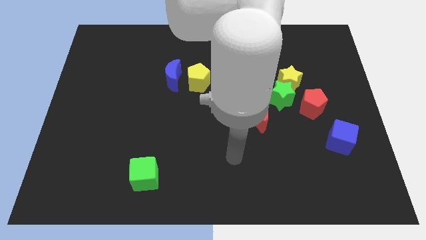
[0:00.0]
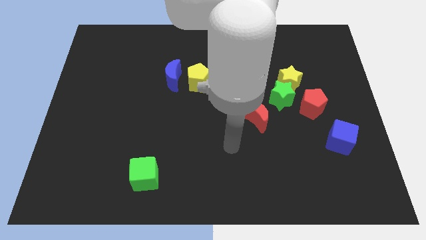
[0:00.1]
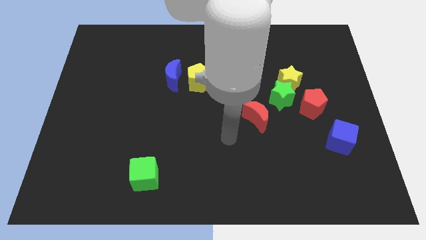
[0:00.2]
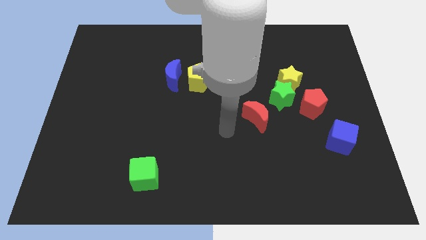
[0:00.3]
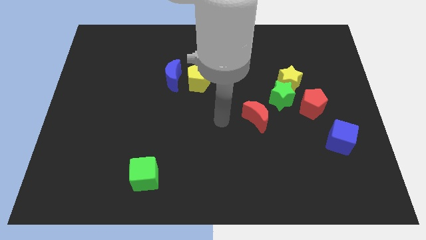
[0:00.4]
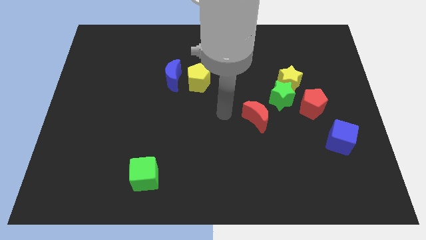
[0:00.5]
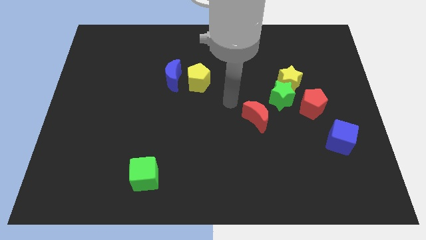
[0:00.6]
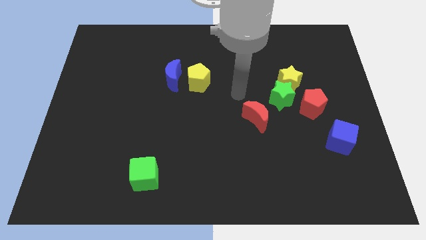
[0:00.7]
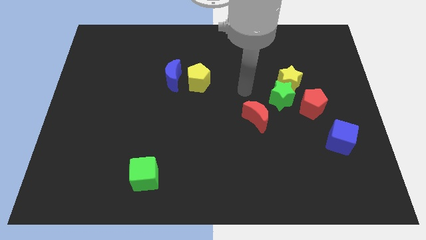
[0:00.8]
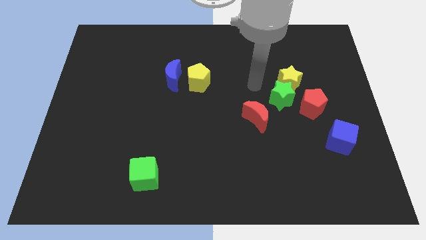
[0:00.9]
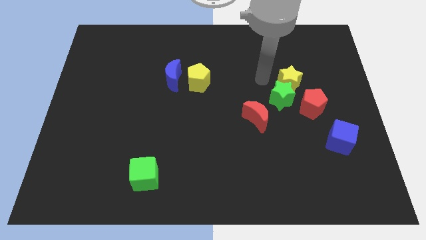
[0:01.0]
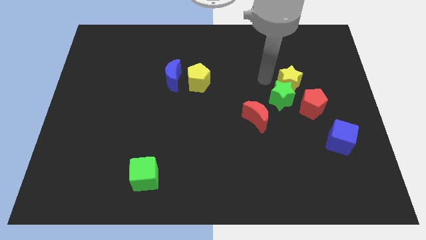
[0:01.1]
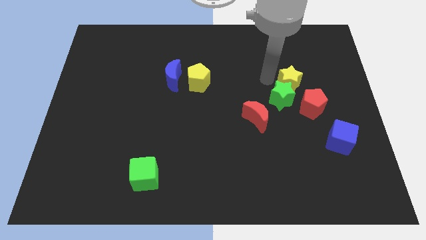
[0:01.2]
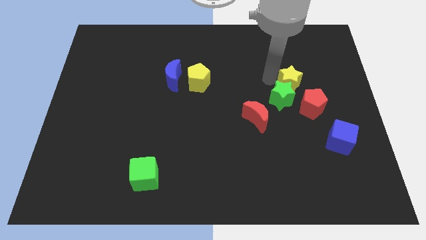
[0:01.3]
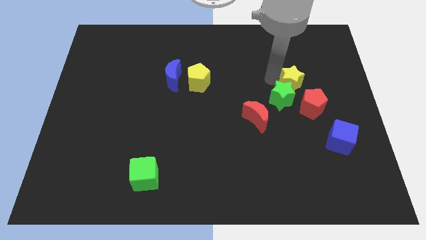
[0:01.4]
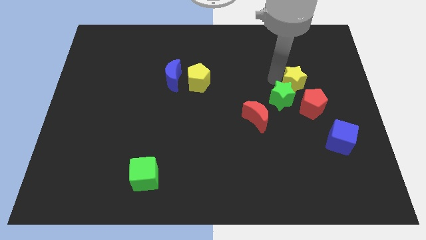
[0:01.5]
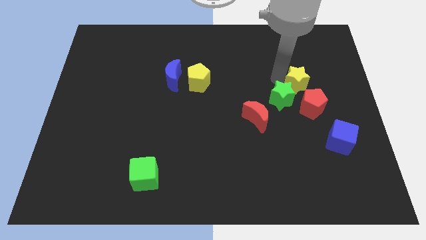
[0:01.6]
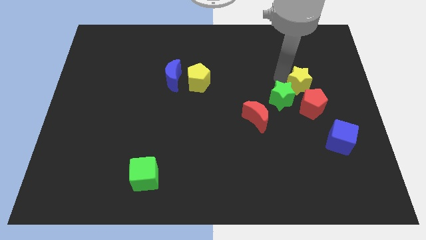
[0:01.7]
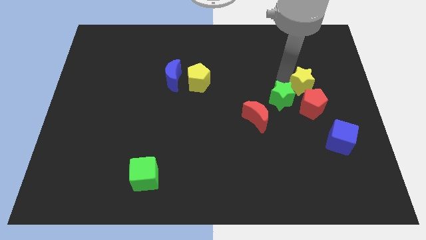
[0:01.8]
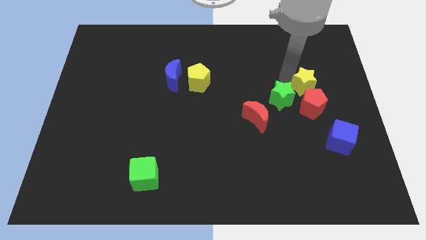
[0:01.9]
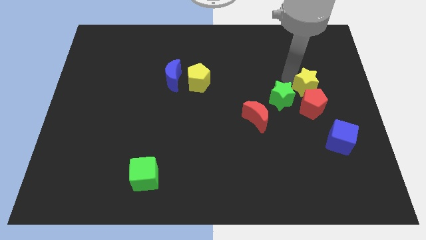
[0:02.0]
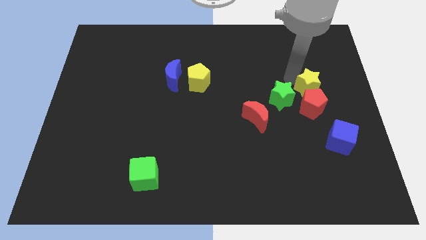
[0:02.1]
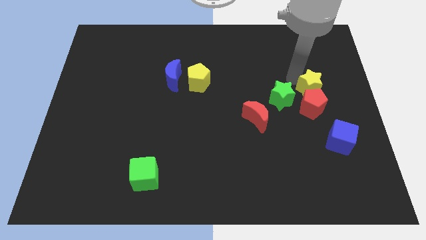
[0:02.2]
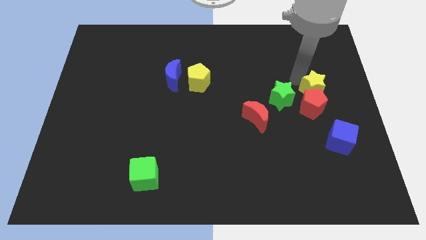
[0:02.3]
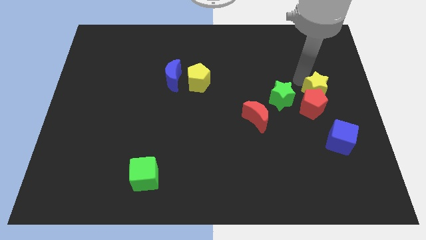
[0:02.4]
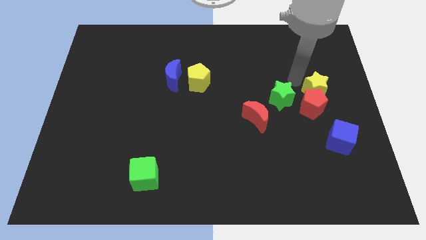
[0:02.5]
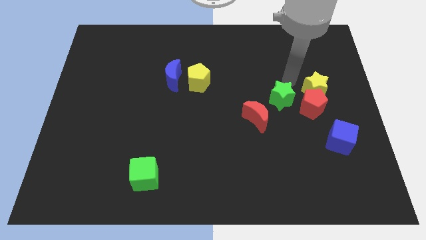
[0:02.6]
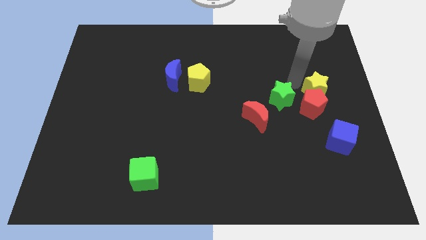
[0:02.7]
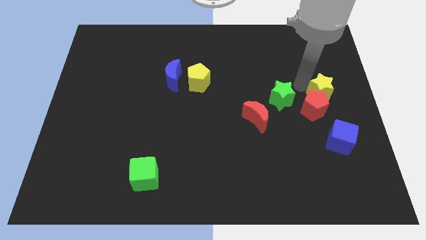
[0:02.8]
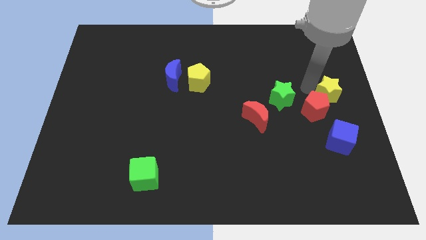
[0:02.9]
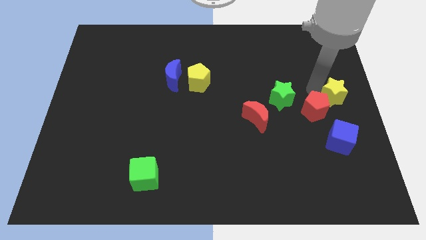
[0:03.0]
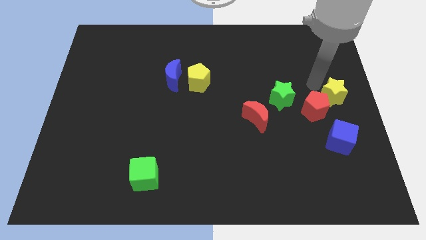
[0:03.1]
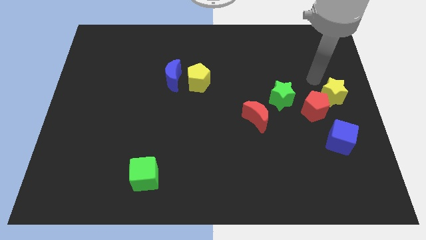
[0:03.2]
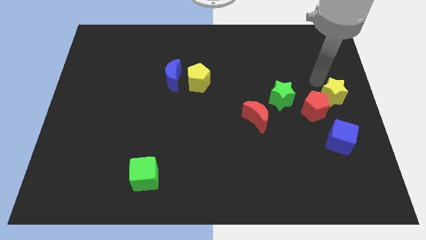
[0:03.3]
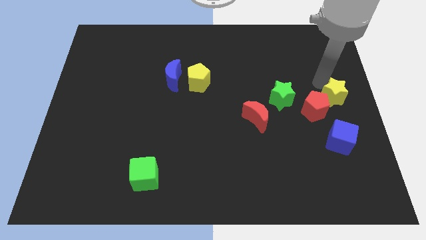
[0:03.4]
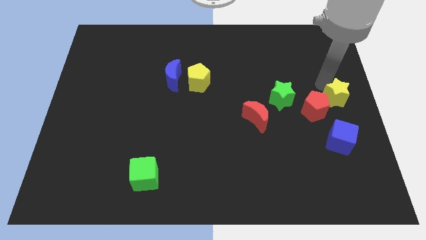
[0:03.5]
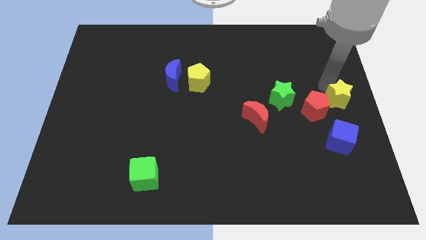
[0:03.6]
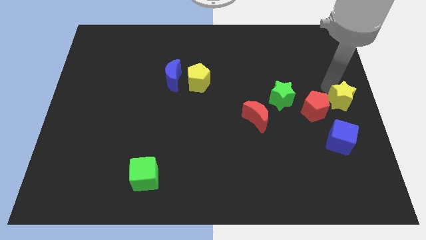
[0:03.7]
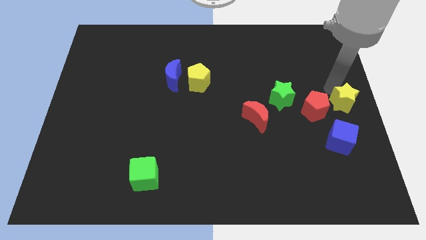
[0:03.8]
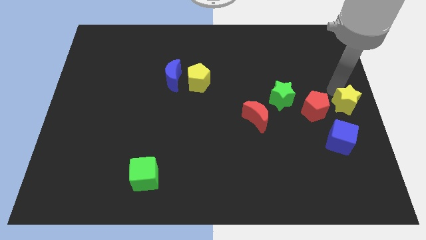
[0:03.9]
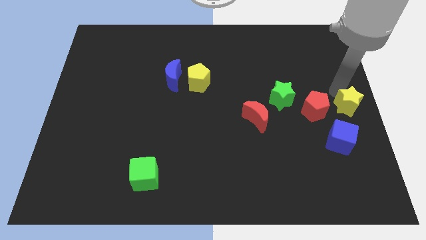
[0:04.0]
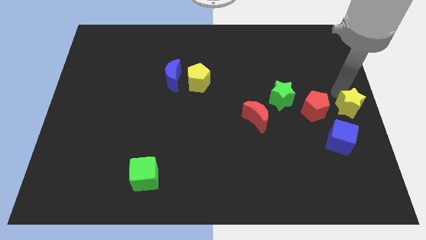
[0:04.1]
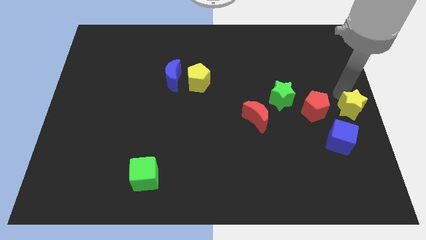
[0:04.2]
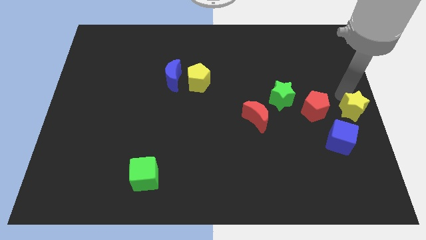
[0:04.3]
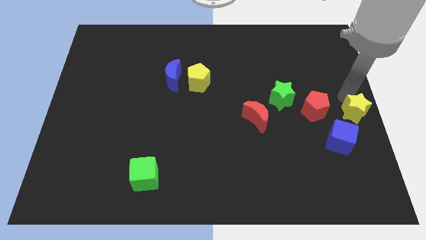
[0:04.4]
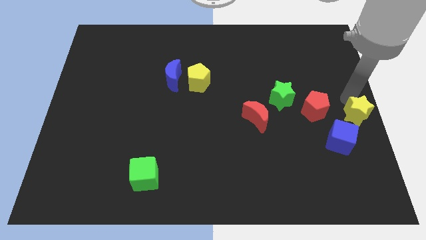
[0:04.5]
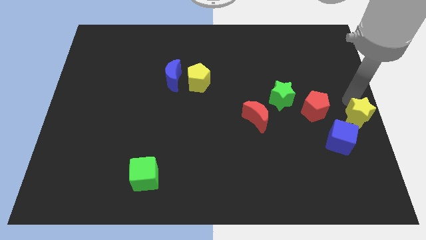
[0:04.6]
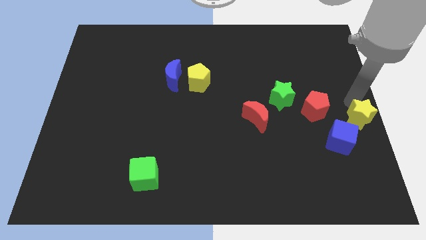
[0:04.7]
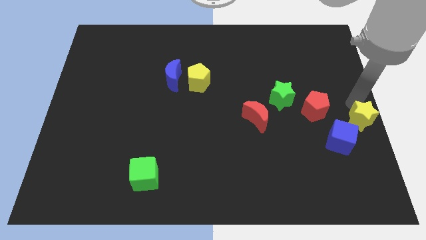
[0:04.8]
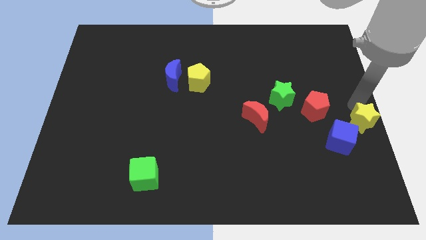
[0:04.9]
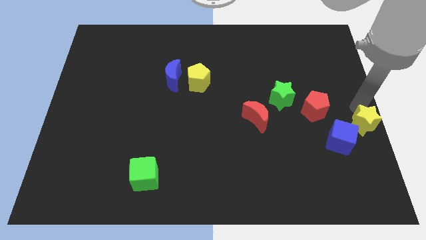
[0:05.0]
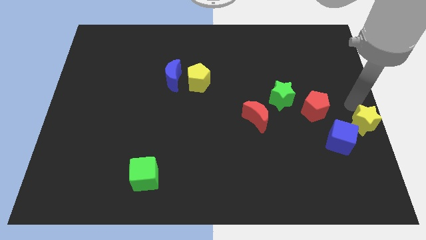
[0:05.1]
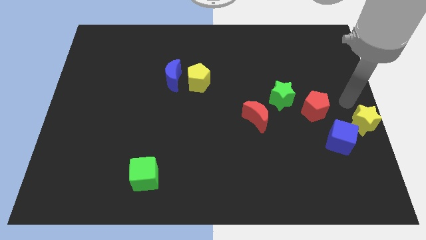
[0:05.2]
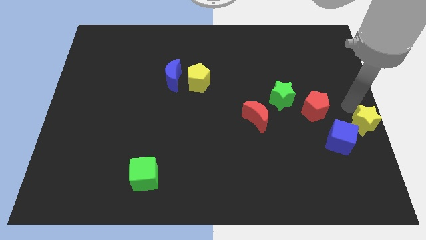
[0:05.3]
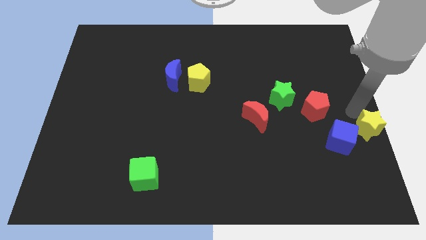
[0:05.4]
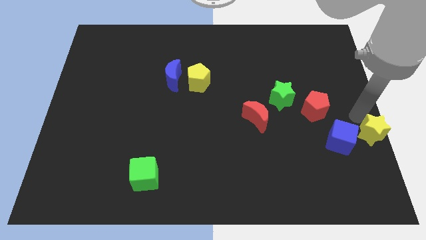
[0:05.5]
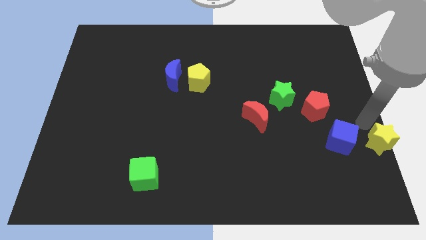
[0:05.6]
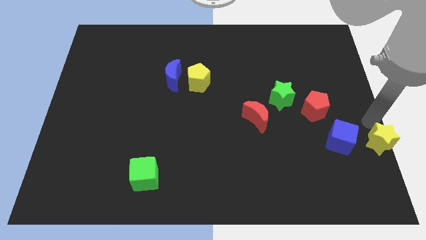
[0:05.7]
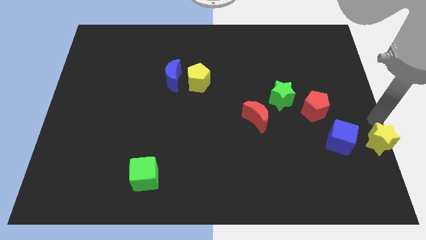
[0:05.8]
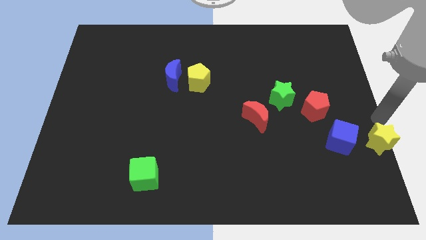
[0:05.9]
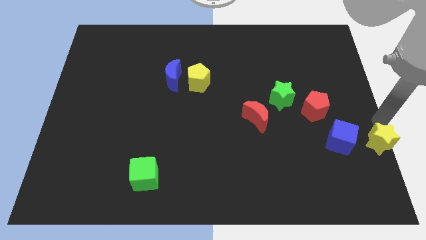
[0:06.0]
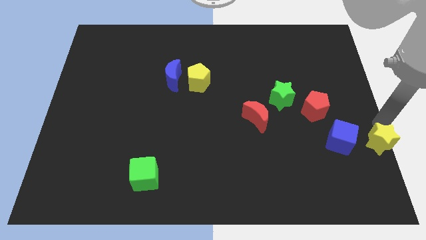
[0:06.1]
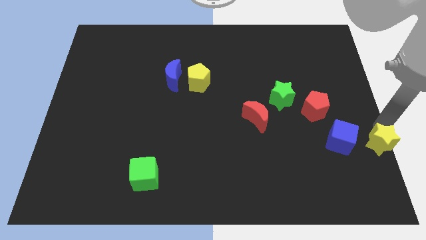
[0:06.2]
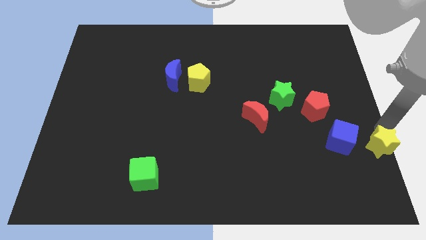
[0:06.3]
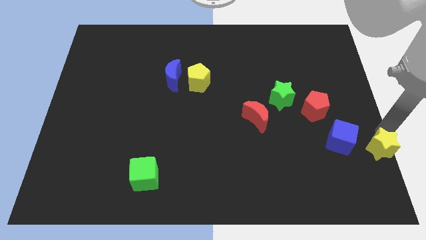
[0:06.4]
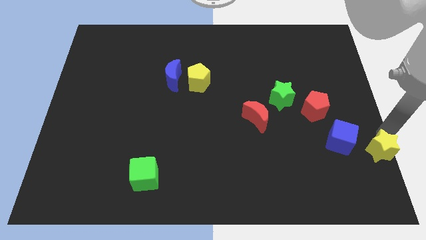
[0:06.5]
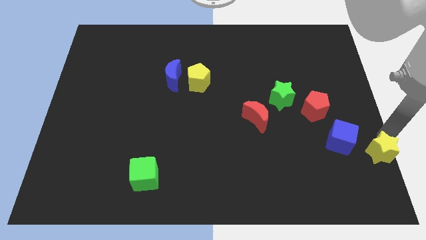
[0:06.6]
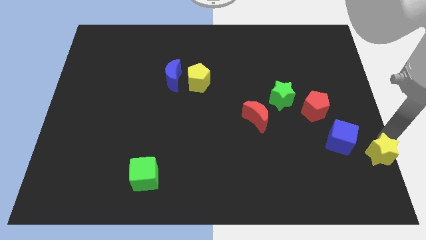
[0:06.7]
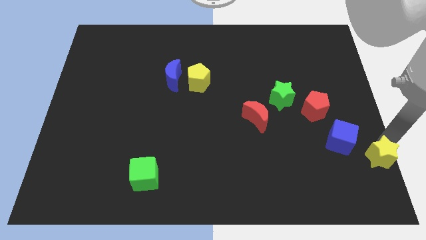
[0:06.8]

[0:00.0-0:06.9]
move the yellow star to the bottom right of the board
